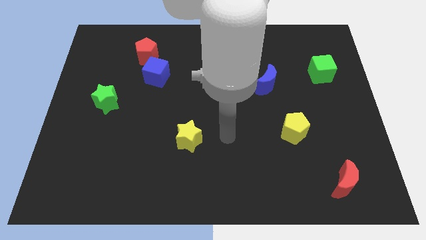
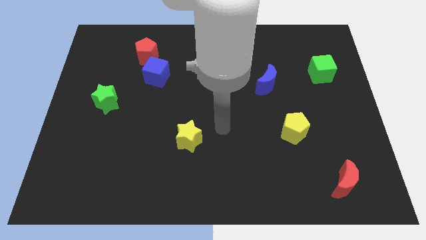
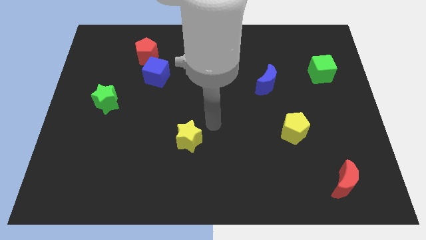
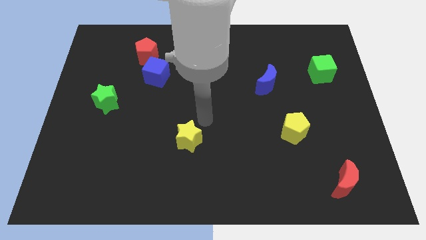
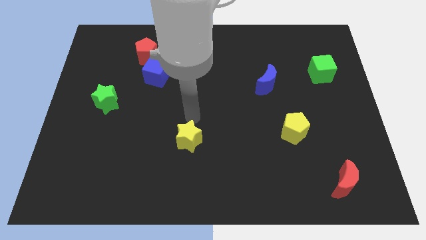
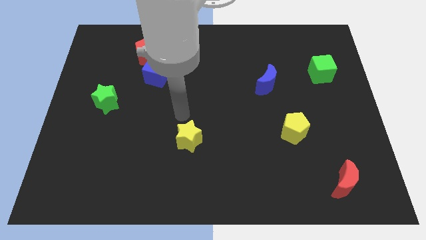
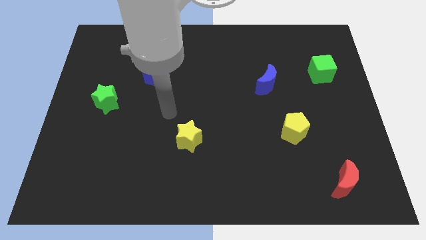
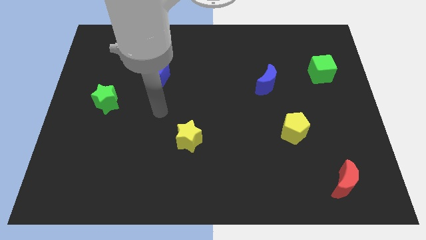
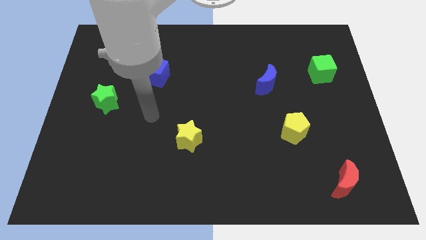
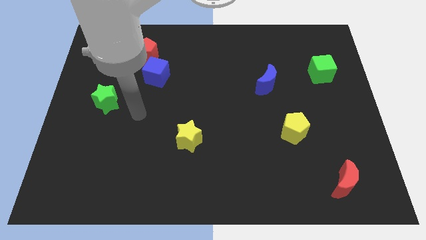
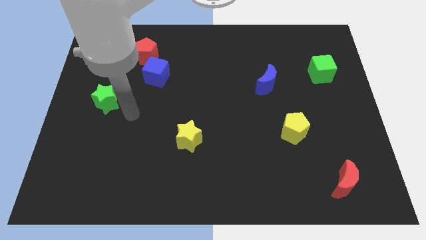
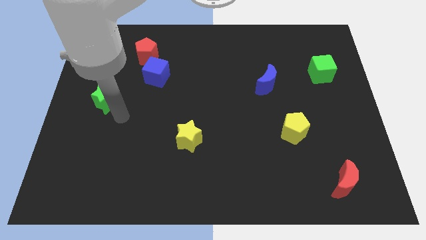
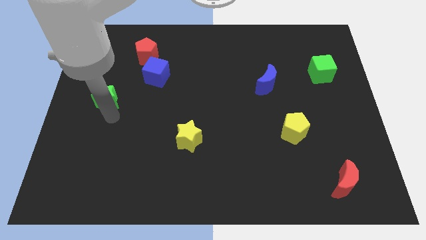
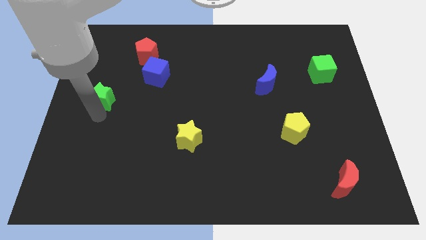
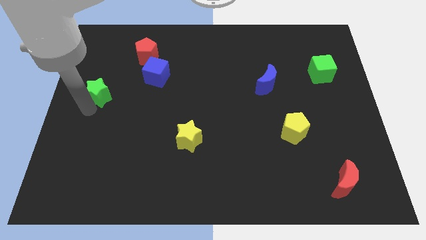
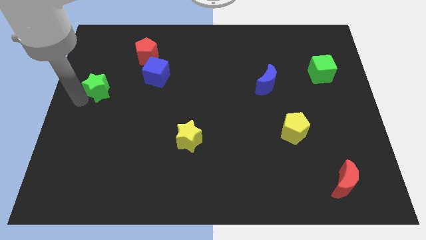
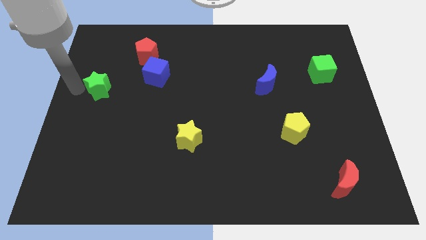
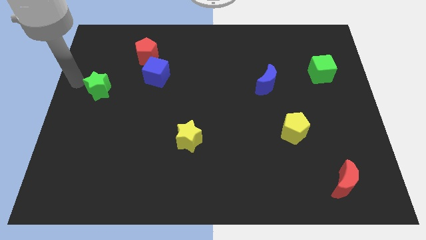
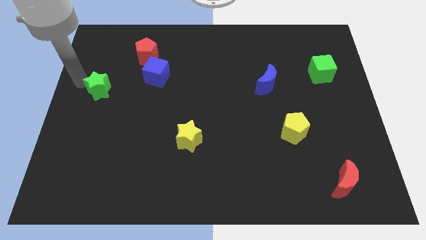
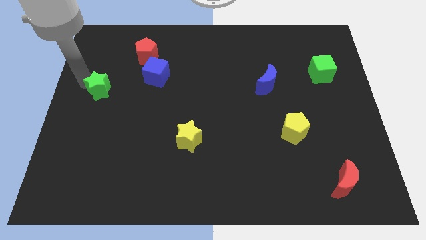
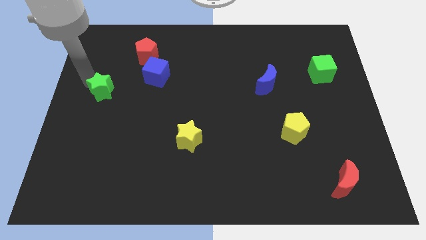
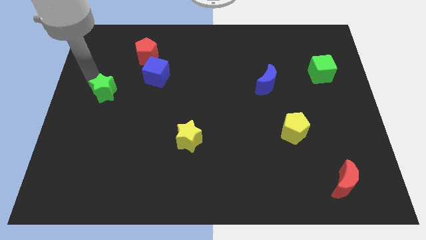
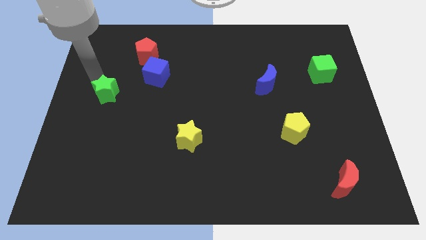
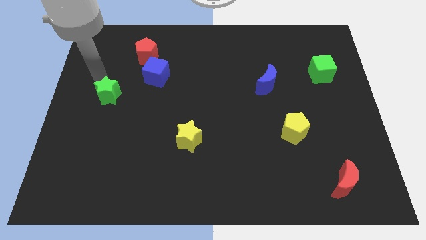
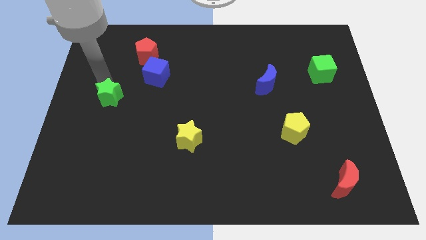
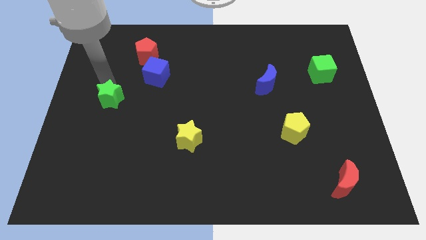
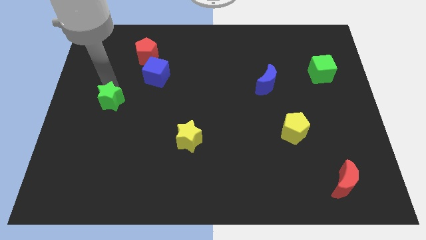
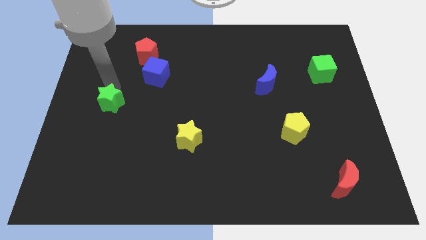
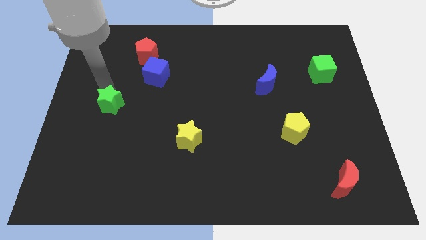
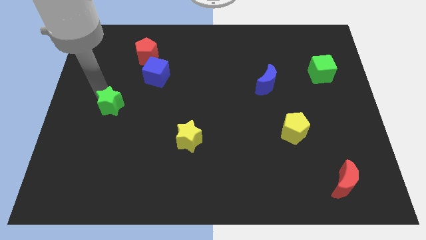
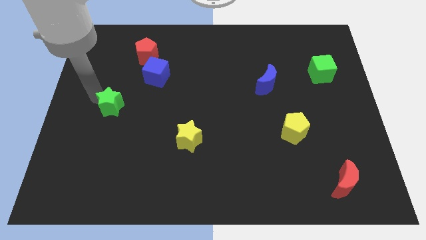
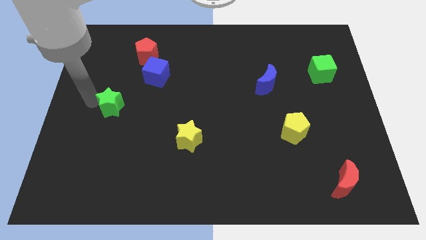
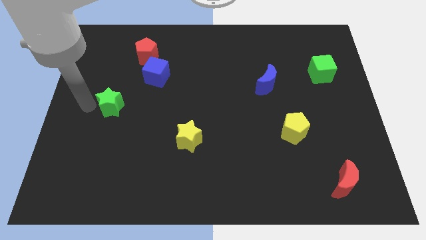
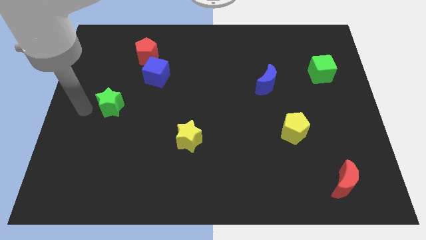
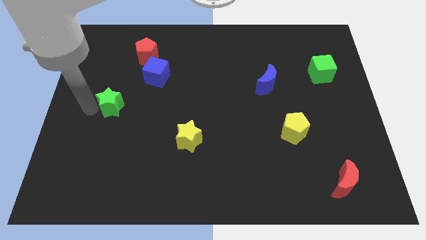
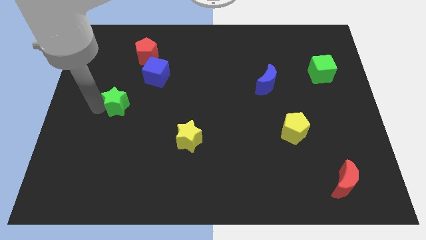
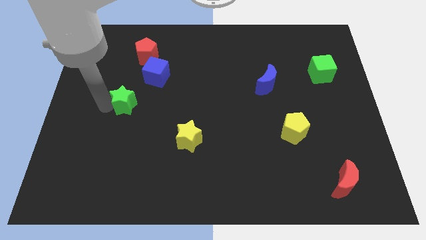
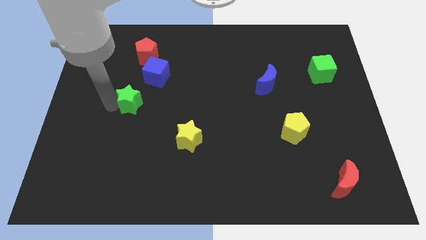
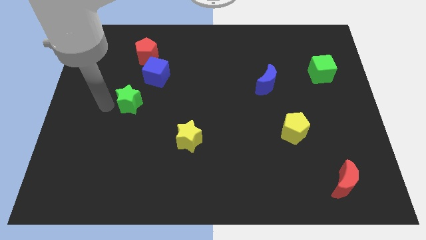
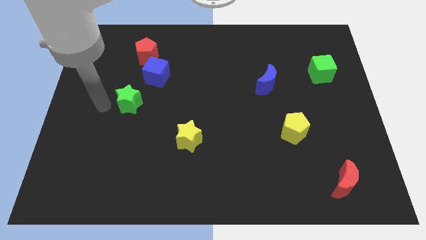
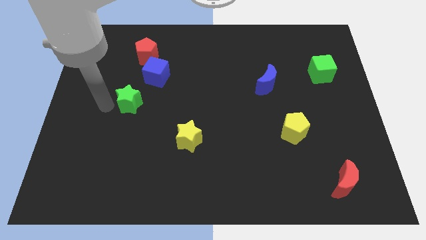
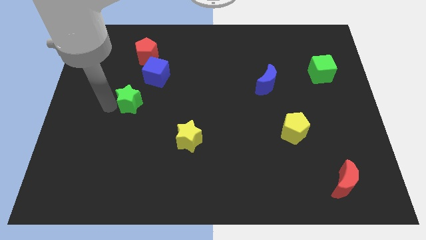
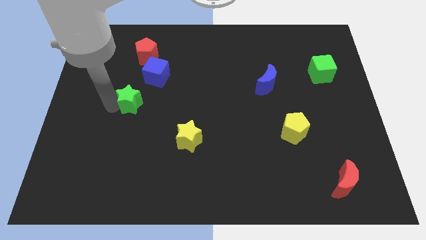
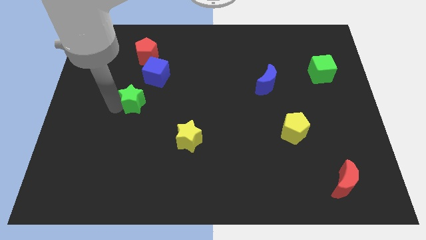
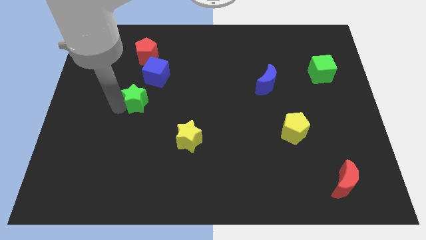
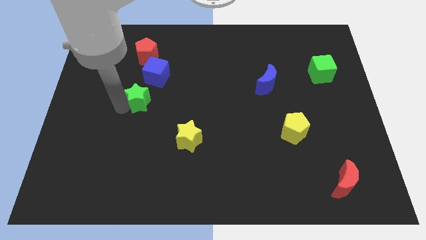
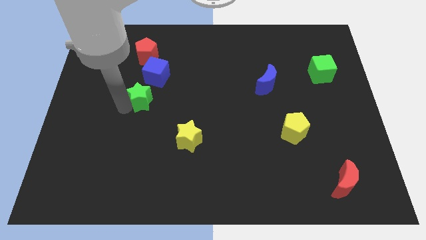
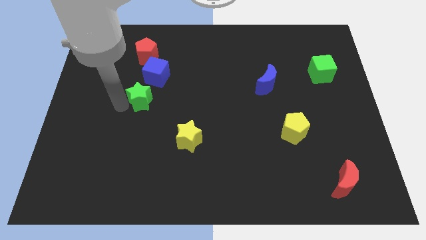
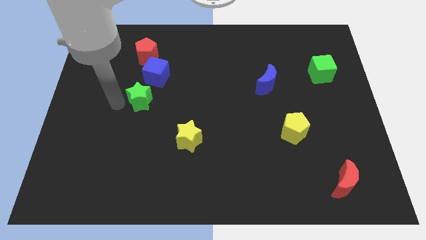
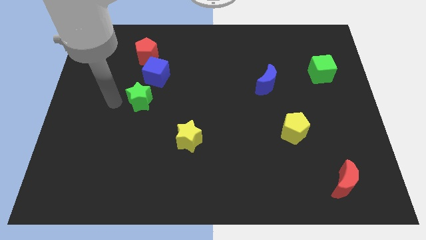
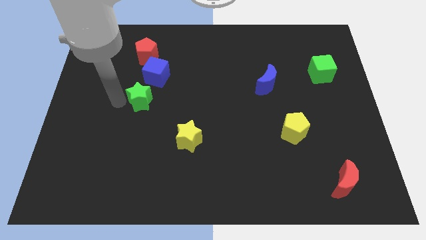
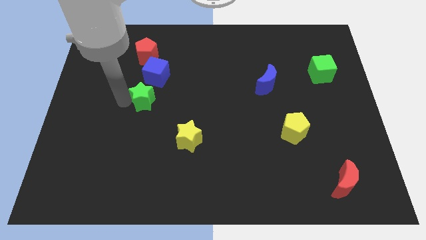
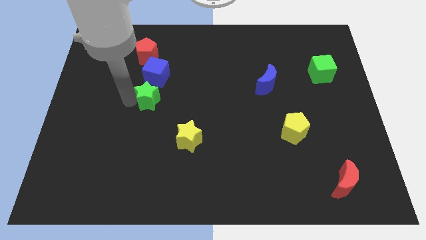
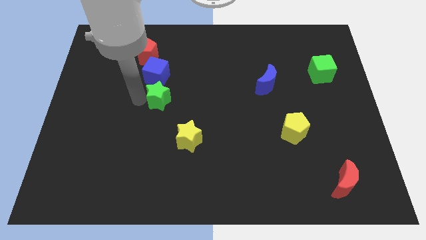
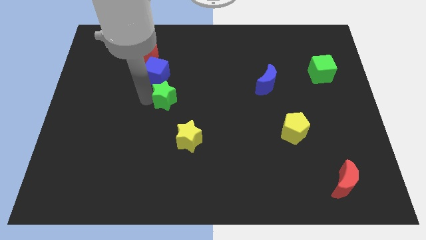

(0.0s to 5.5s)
slide the green star to the center of the board

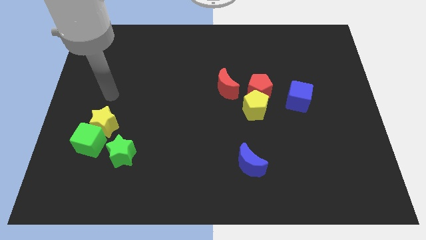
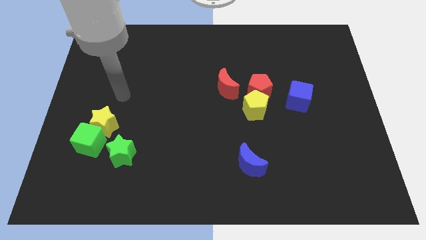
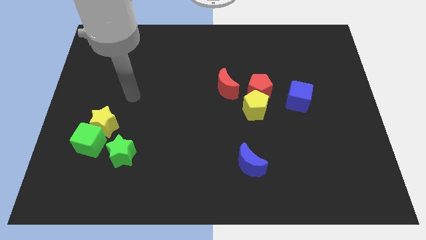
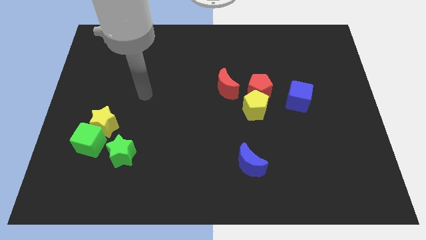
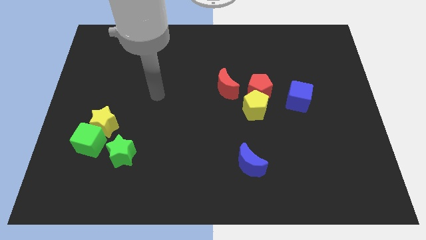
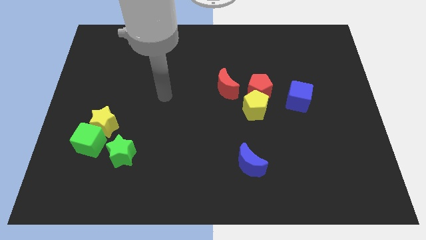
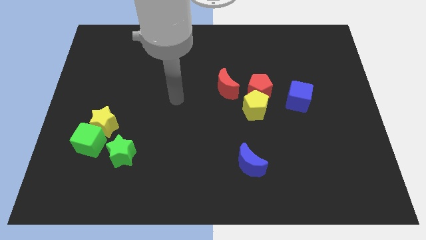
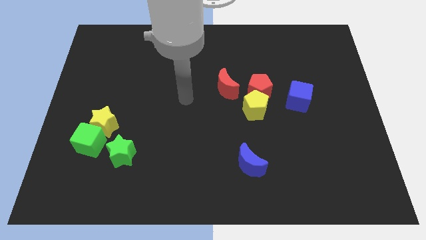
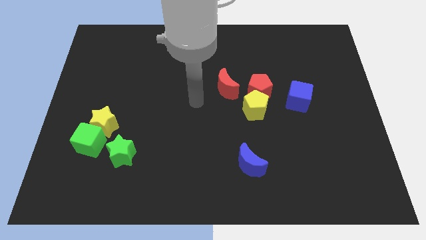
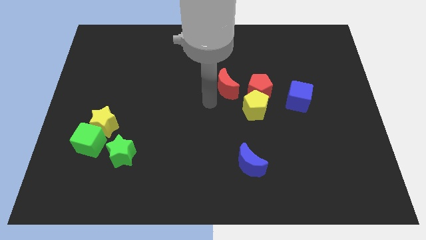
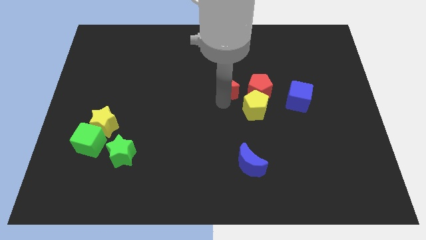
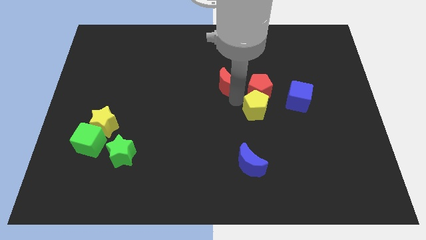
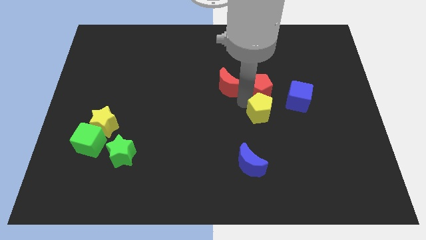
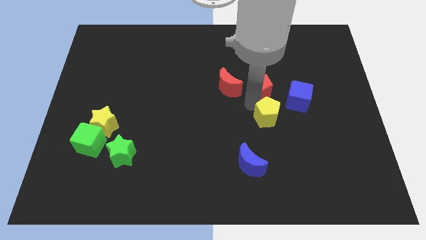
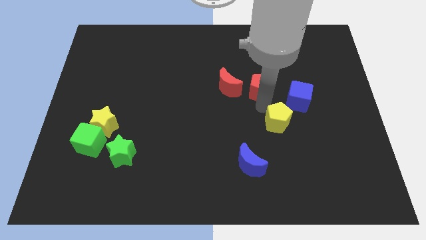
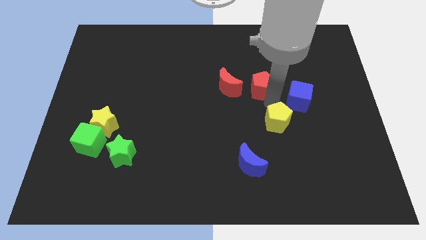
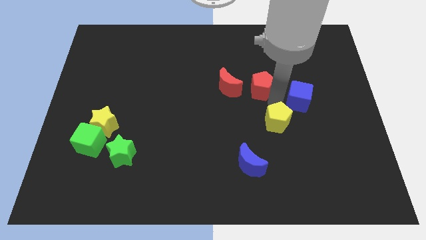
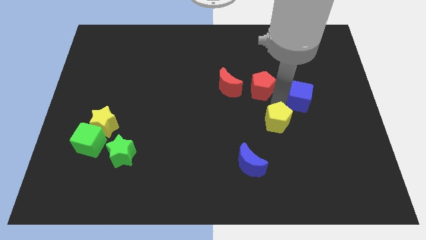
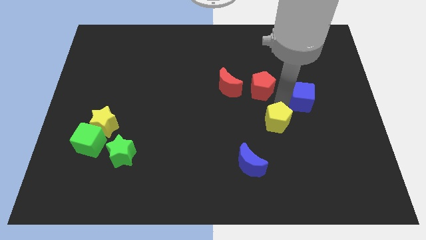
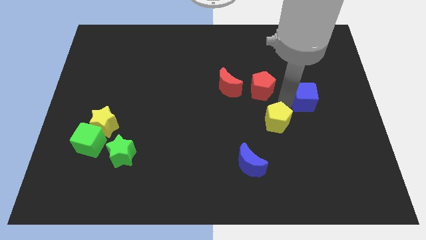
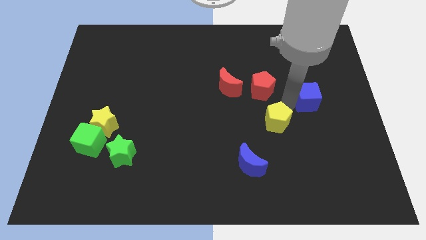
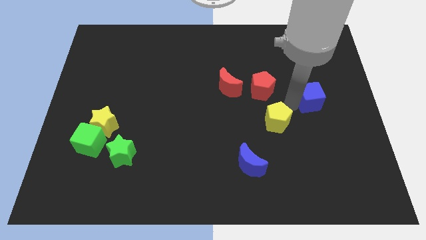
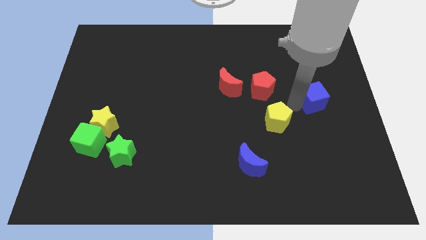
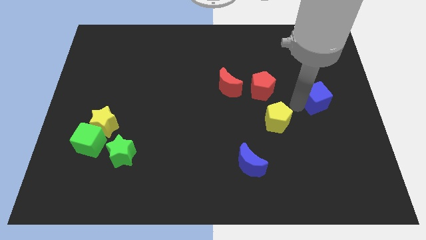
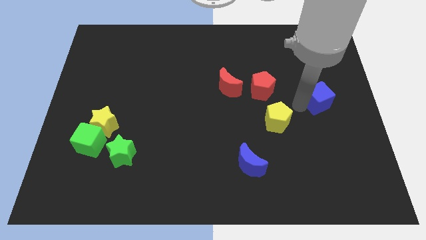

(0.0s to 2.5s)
move the blue cube to the right side
